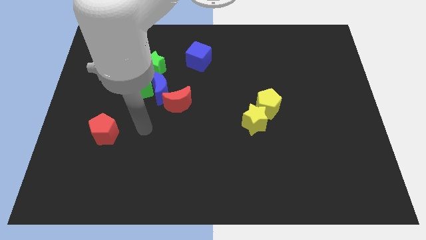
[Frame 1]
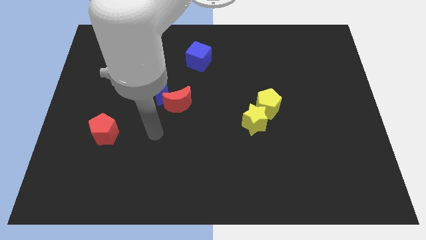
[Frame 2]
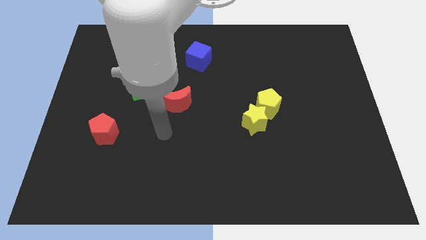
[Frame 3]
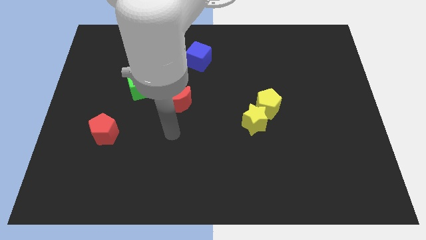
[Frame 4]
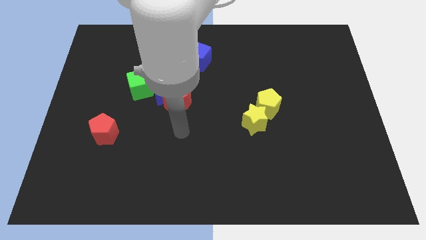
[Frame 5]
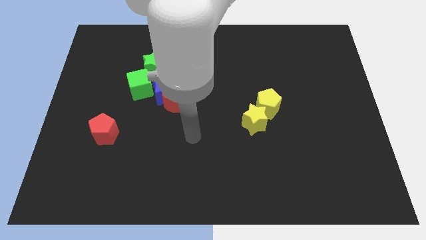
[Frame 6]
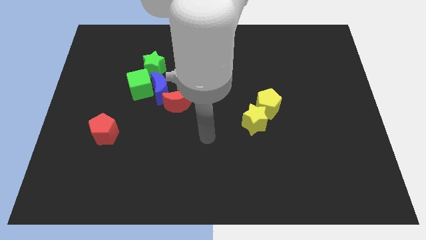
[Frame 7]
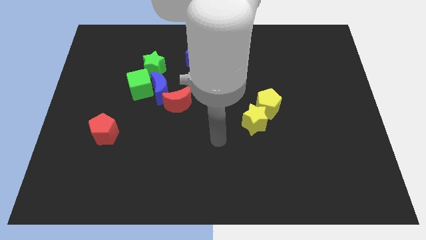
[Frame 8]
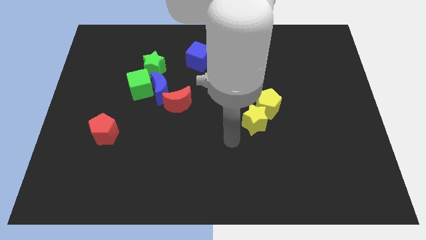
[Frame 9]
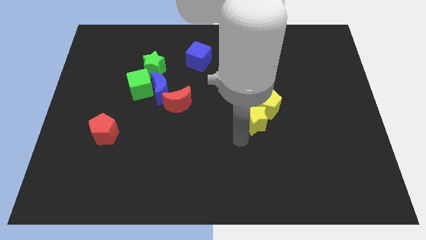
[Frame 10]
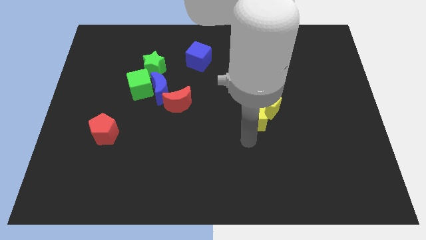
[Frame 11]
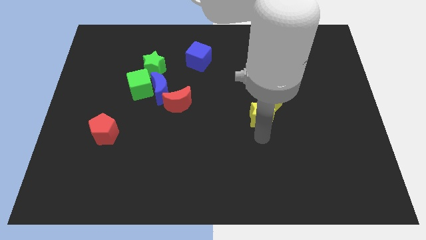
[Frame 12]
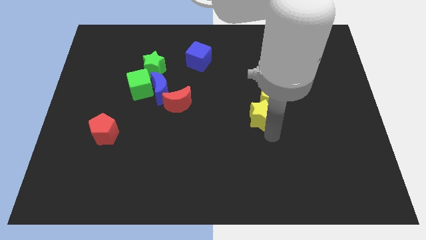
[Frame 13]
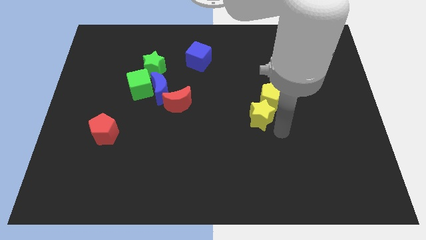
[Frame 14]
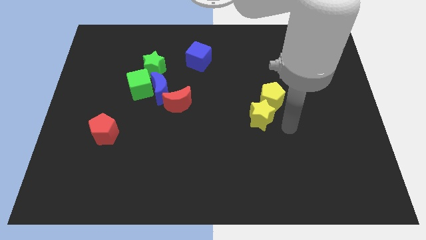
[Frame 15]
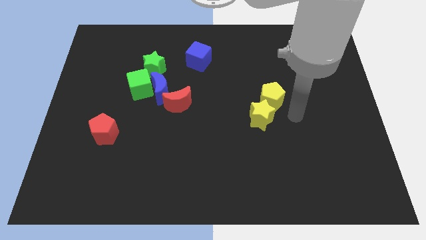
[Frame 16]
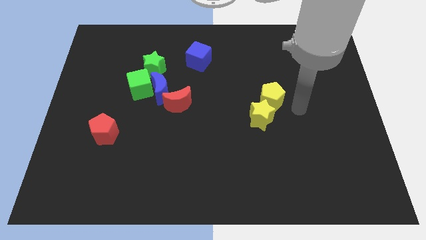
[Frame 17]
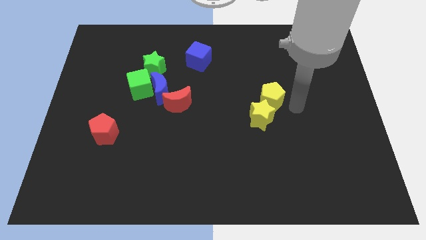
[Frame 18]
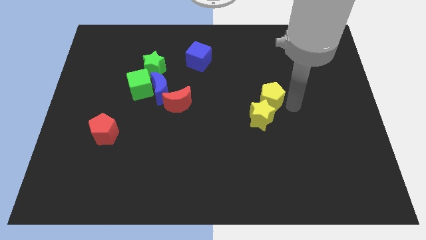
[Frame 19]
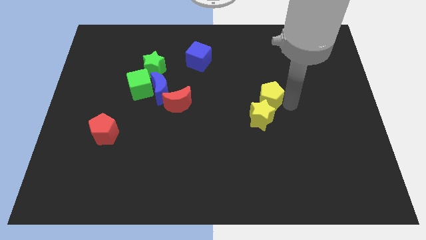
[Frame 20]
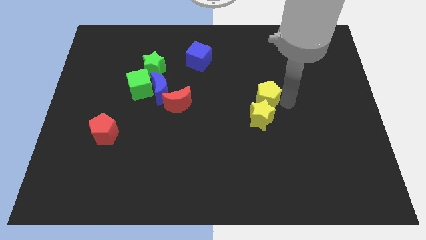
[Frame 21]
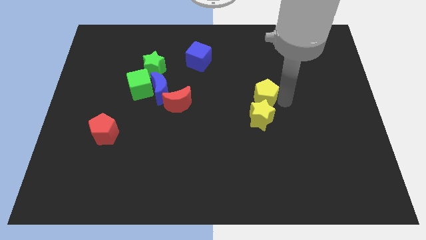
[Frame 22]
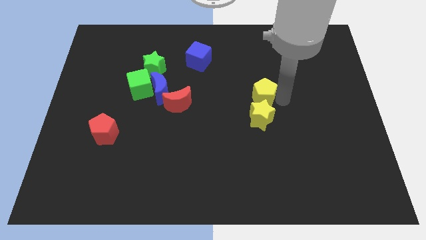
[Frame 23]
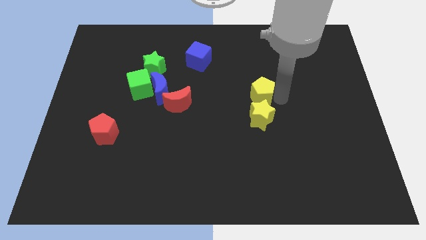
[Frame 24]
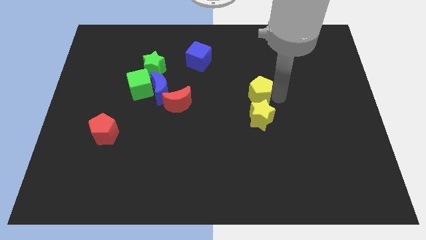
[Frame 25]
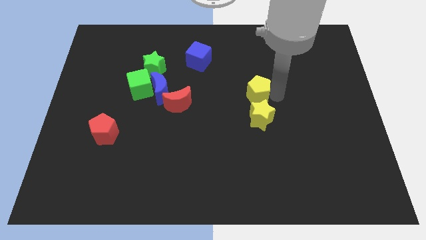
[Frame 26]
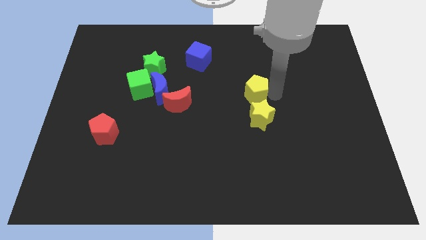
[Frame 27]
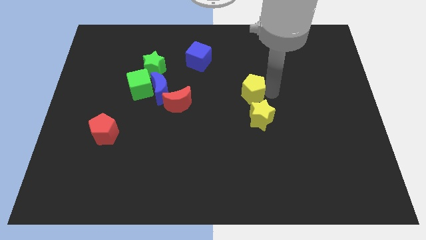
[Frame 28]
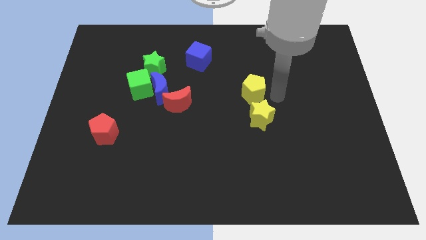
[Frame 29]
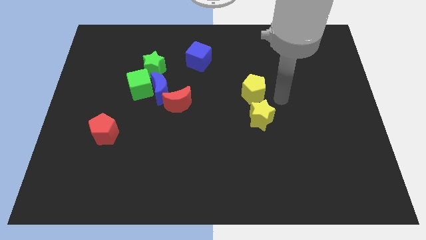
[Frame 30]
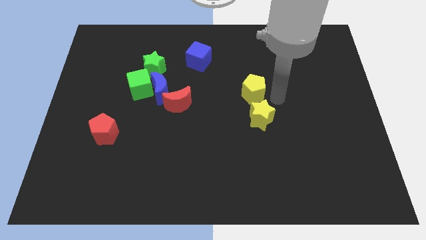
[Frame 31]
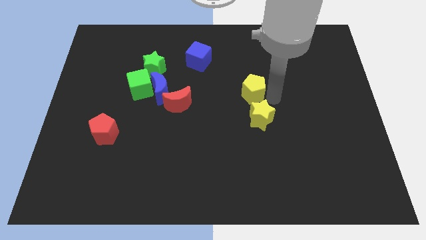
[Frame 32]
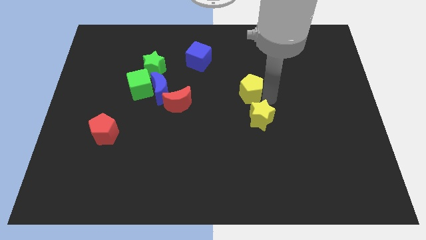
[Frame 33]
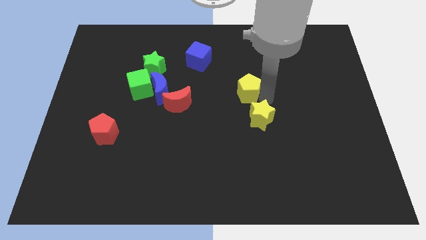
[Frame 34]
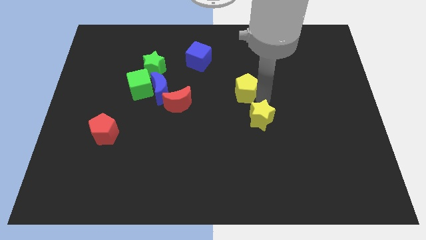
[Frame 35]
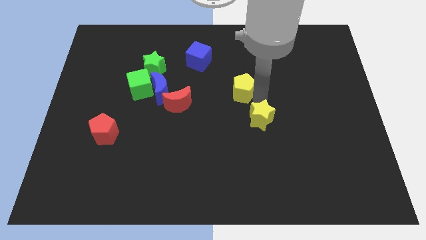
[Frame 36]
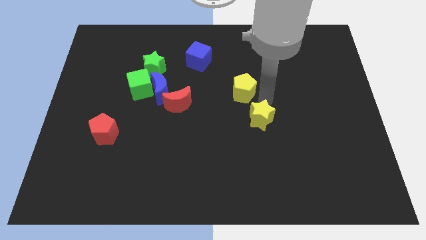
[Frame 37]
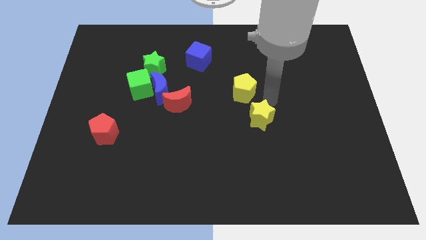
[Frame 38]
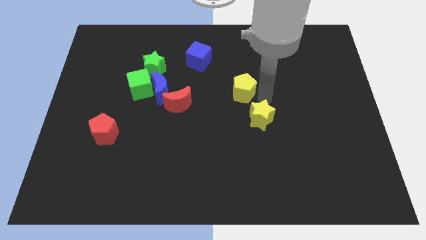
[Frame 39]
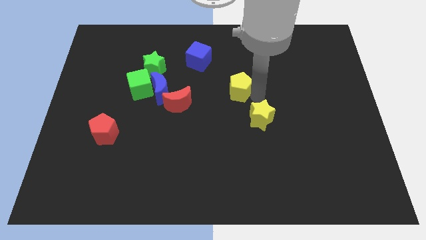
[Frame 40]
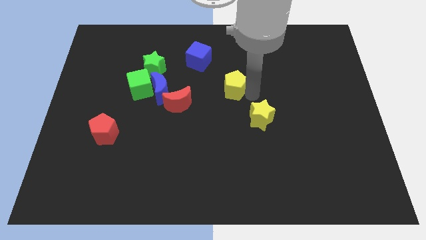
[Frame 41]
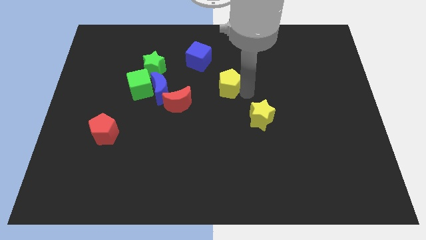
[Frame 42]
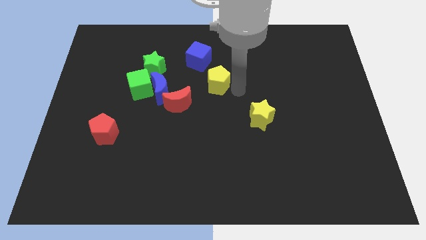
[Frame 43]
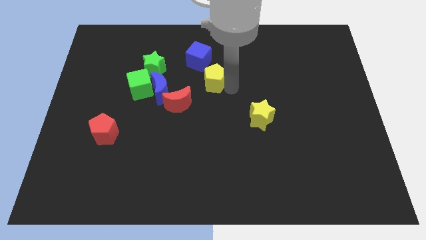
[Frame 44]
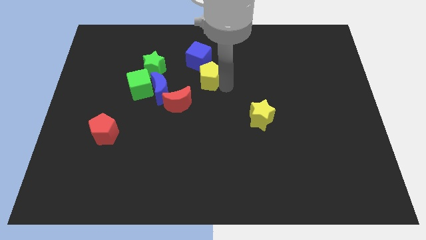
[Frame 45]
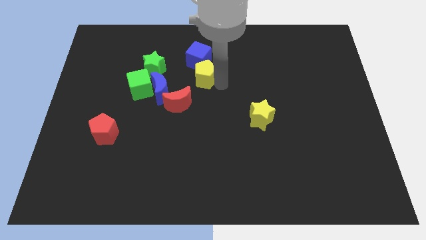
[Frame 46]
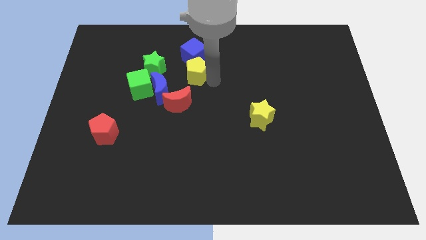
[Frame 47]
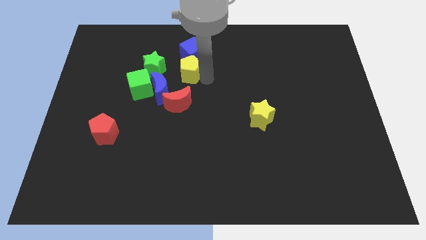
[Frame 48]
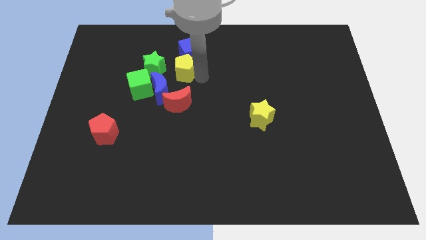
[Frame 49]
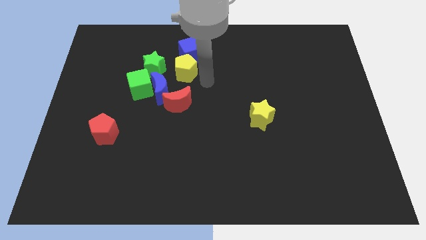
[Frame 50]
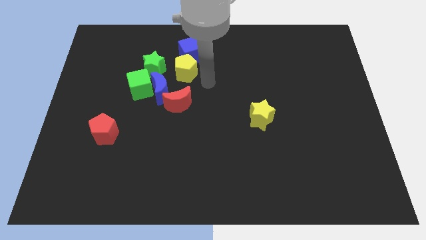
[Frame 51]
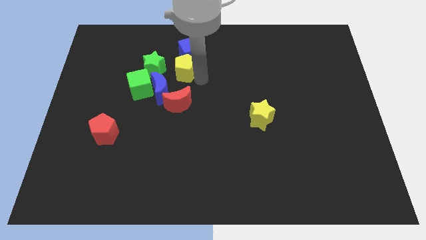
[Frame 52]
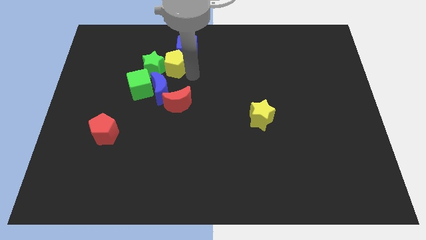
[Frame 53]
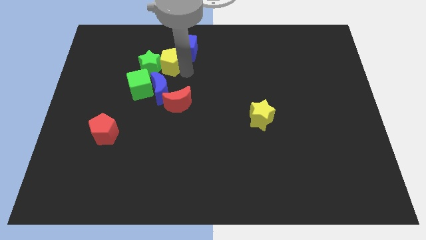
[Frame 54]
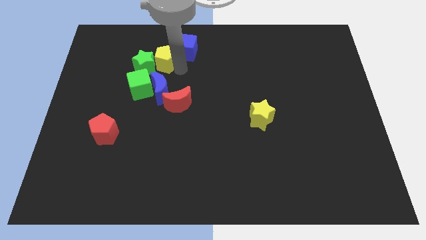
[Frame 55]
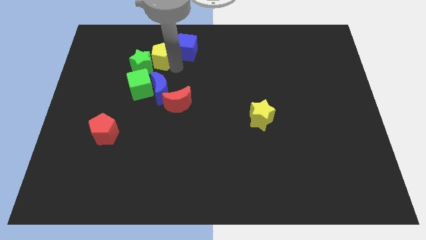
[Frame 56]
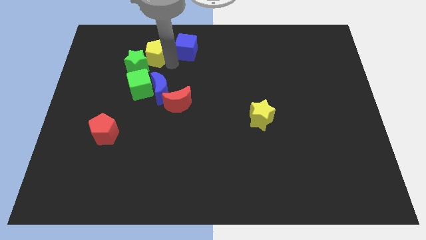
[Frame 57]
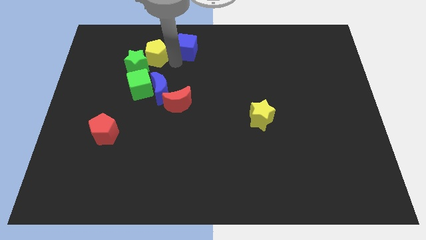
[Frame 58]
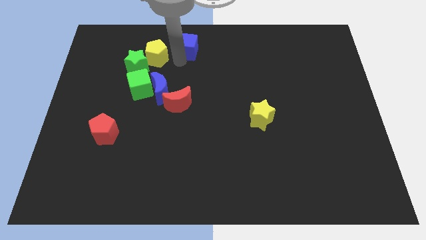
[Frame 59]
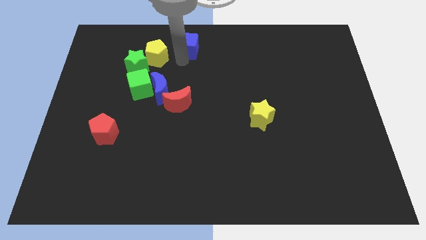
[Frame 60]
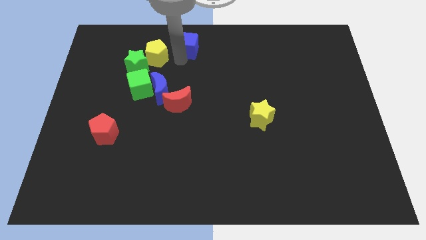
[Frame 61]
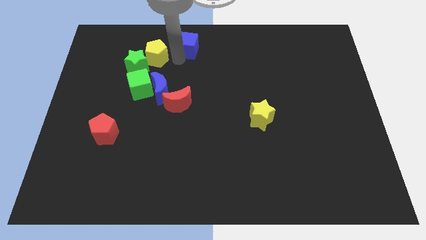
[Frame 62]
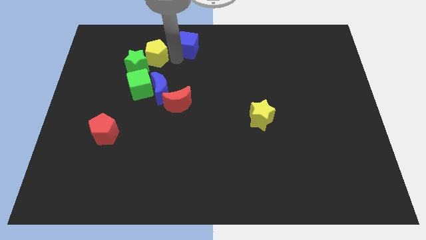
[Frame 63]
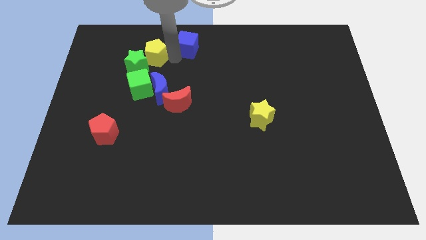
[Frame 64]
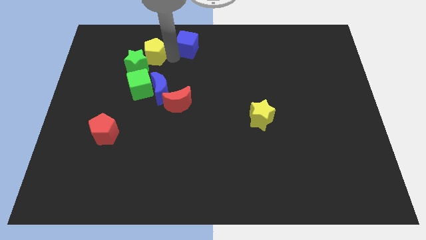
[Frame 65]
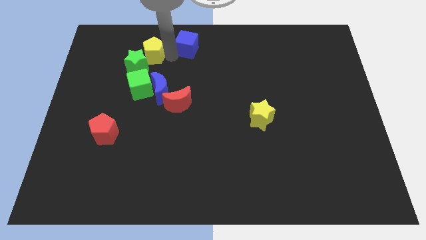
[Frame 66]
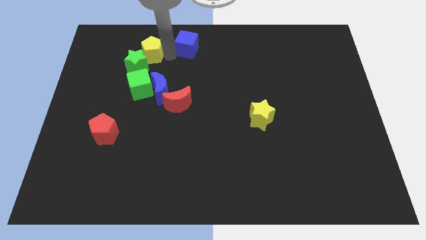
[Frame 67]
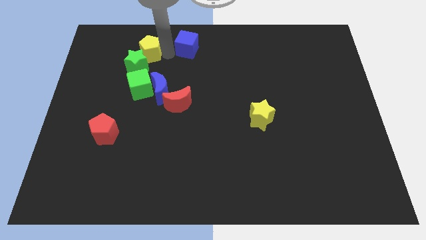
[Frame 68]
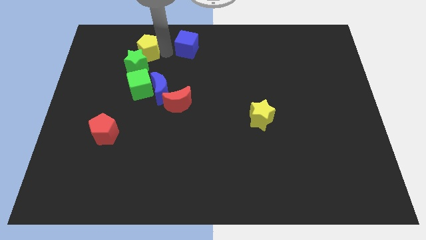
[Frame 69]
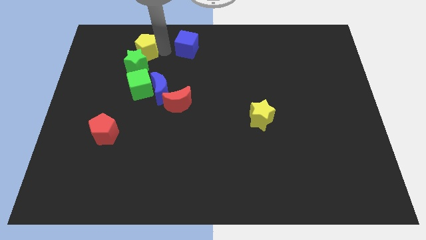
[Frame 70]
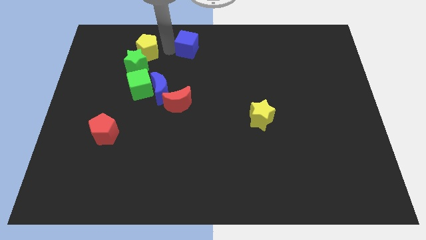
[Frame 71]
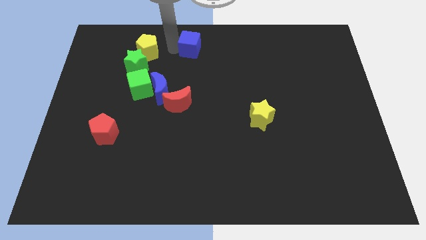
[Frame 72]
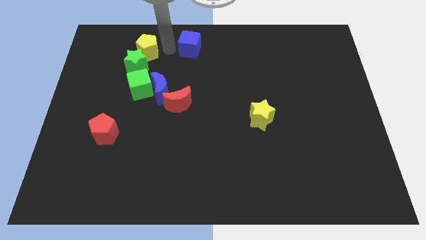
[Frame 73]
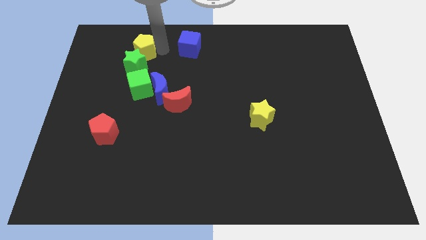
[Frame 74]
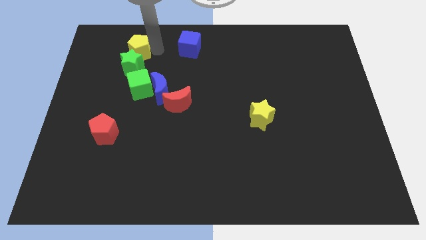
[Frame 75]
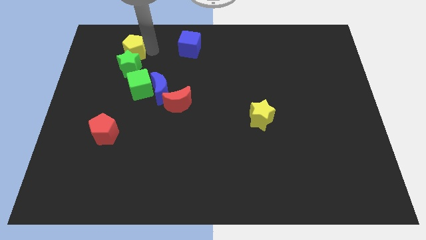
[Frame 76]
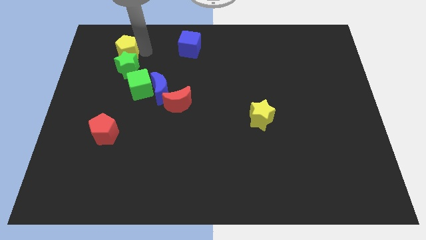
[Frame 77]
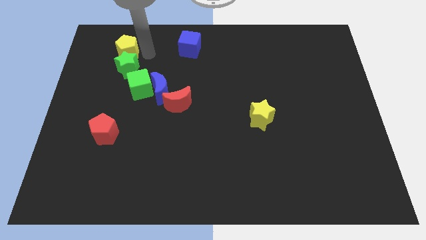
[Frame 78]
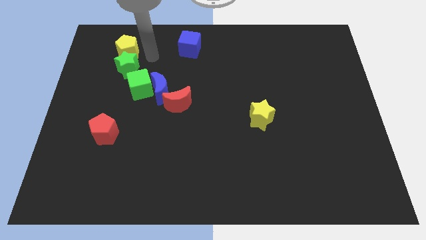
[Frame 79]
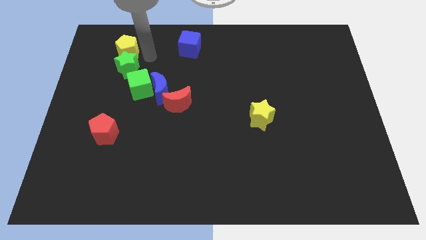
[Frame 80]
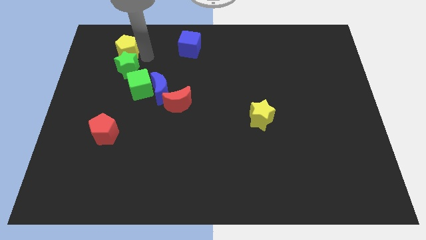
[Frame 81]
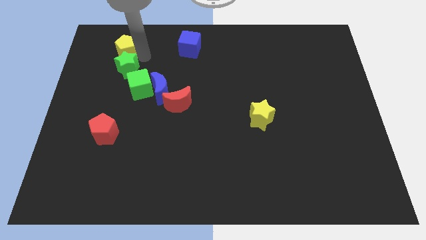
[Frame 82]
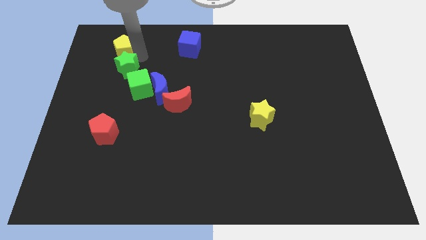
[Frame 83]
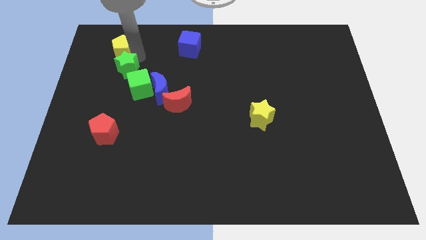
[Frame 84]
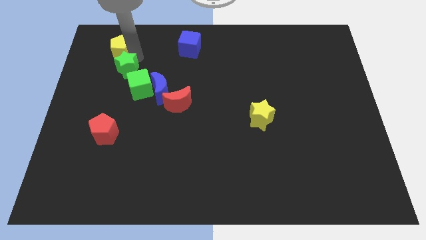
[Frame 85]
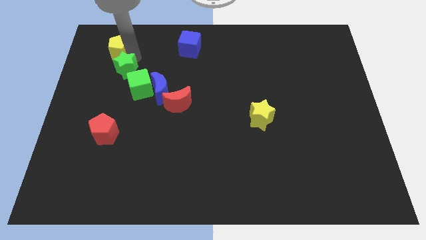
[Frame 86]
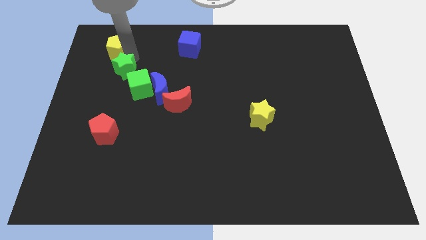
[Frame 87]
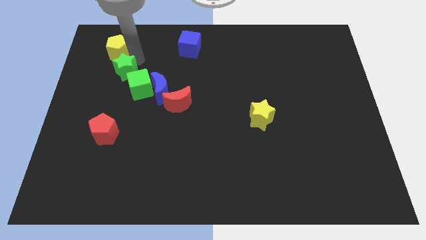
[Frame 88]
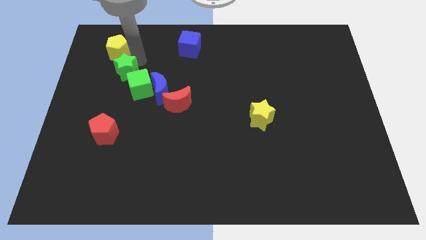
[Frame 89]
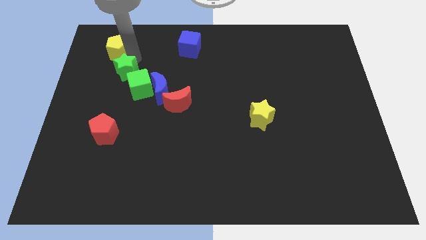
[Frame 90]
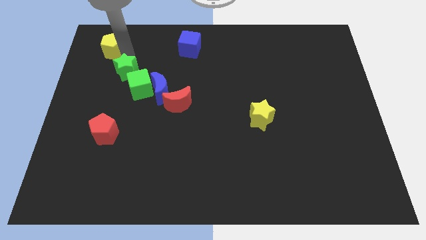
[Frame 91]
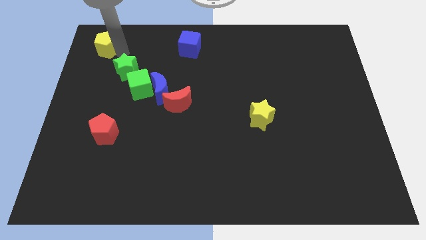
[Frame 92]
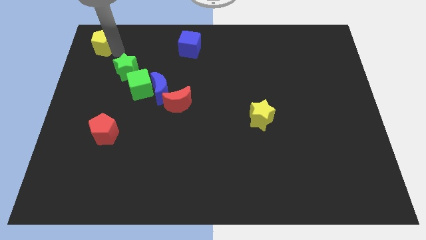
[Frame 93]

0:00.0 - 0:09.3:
put the yellow pentagon to the top left
